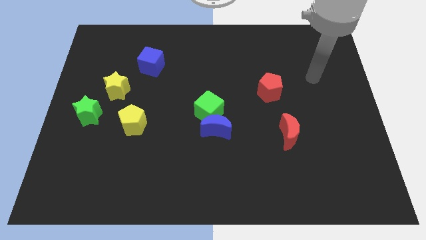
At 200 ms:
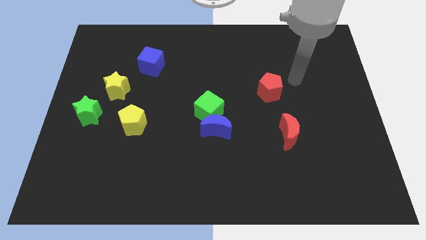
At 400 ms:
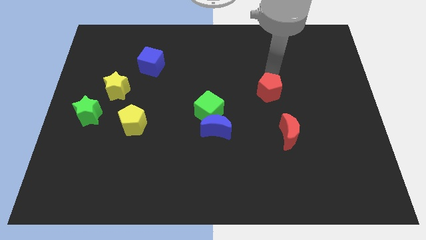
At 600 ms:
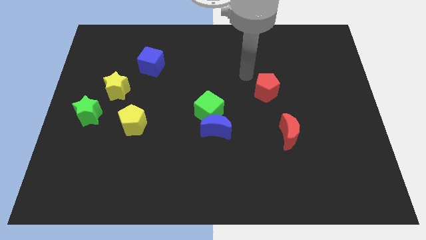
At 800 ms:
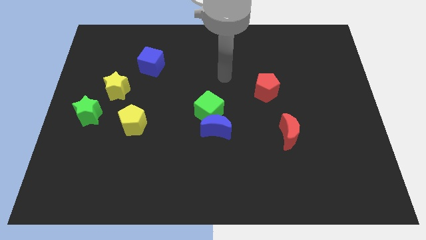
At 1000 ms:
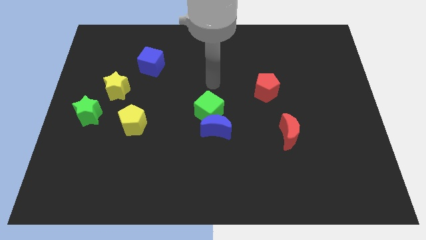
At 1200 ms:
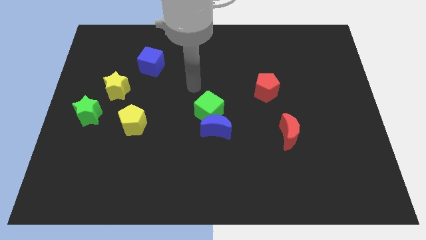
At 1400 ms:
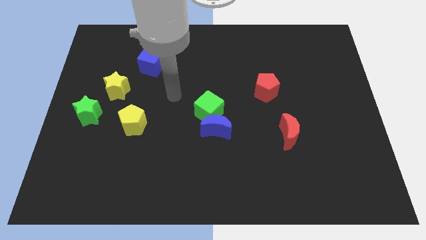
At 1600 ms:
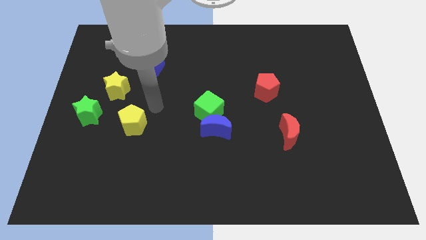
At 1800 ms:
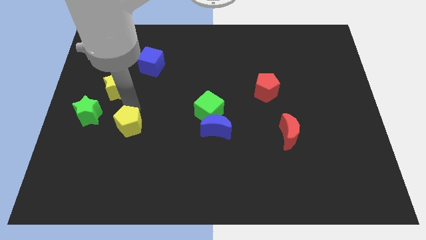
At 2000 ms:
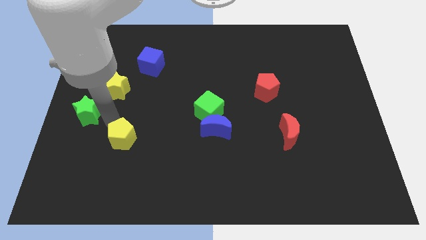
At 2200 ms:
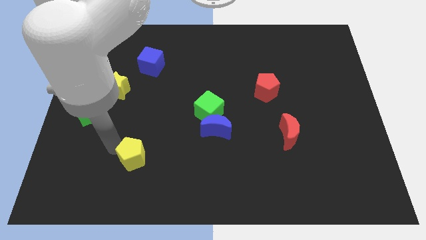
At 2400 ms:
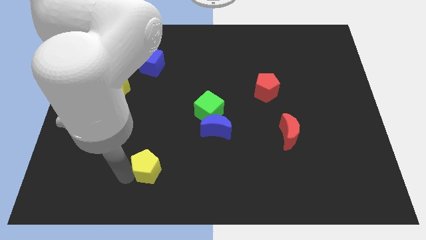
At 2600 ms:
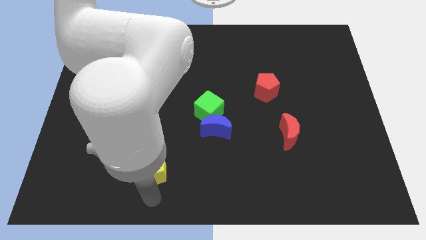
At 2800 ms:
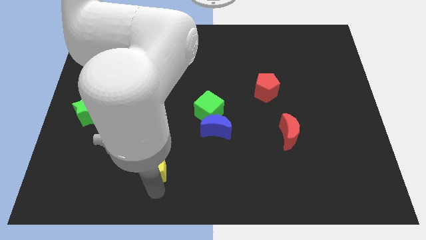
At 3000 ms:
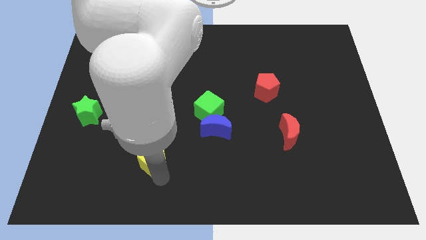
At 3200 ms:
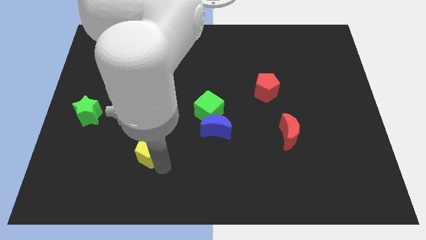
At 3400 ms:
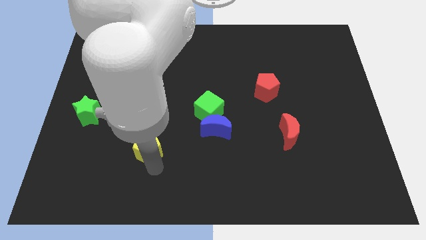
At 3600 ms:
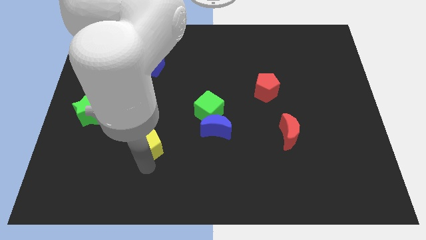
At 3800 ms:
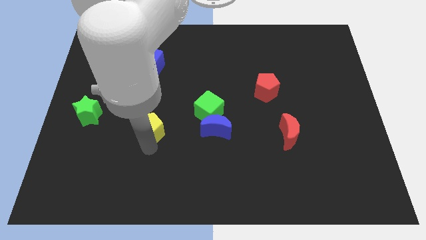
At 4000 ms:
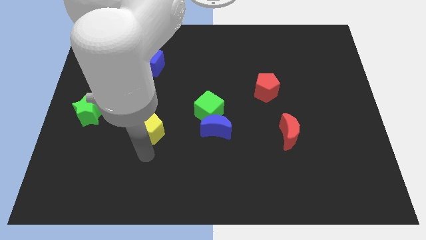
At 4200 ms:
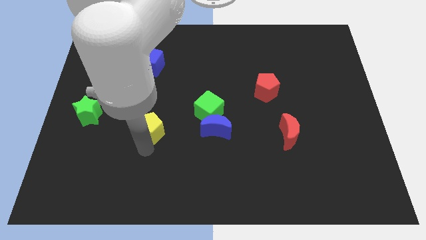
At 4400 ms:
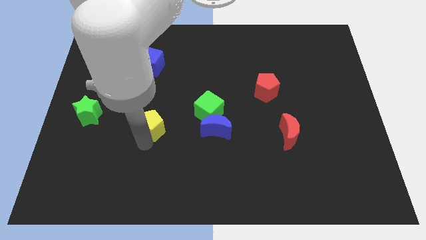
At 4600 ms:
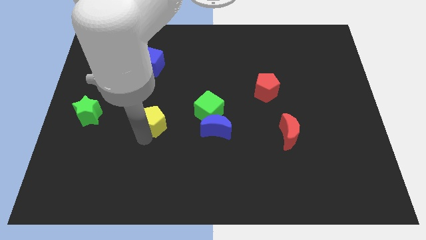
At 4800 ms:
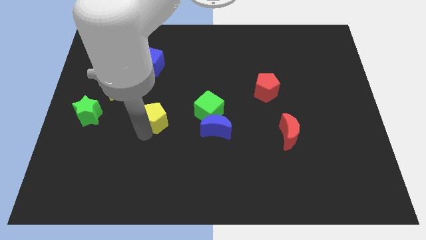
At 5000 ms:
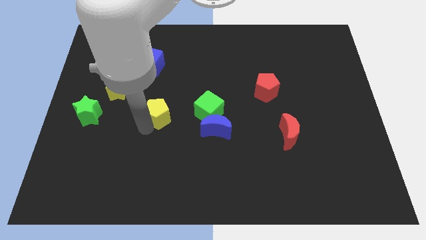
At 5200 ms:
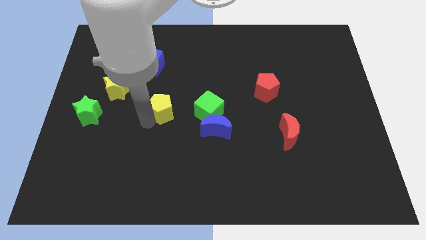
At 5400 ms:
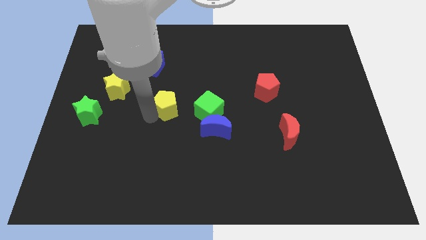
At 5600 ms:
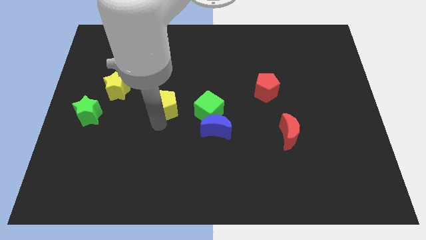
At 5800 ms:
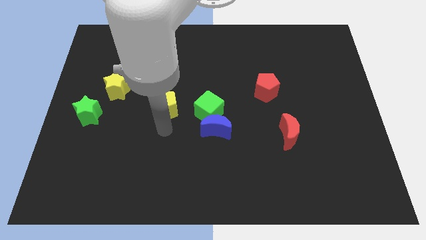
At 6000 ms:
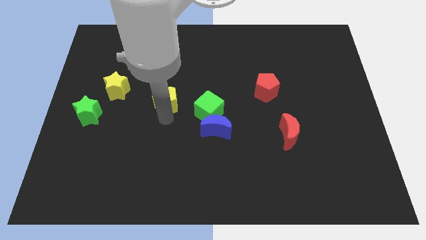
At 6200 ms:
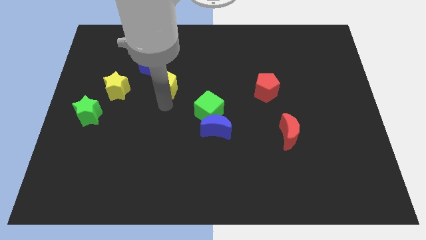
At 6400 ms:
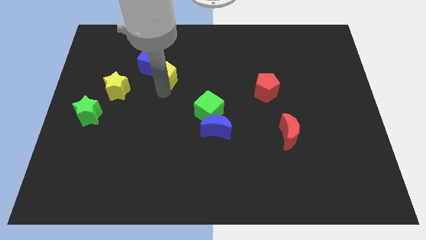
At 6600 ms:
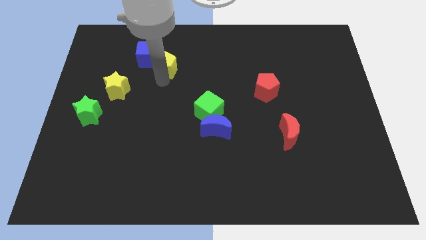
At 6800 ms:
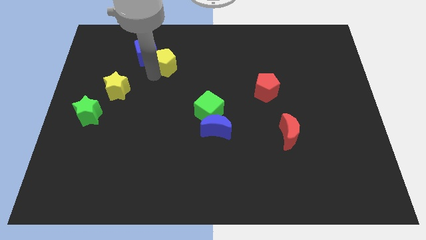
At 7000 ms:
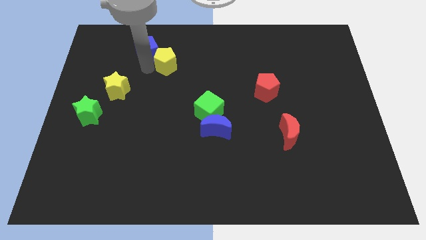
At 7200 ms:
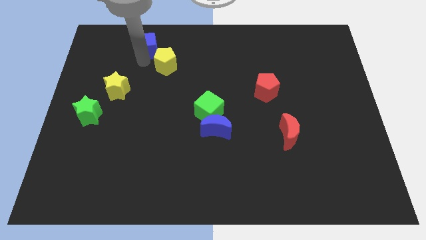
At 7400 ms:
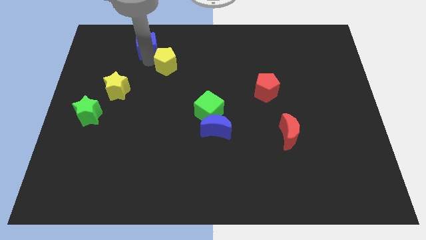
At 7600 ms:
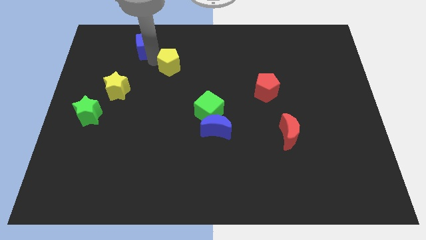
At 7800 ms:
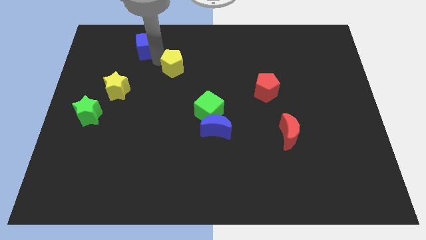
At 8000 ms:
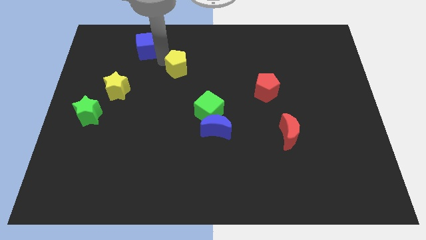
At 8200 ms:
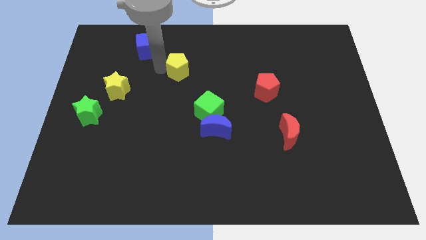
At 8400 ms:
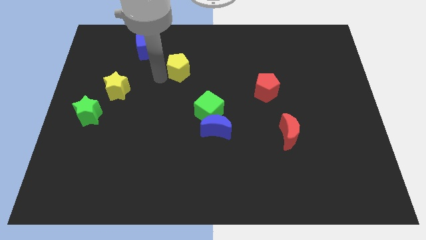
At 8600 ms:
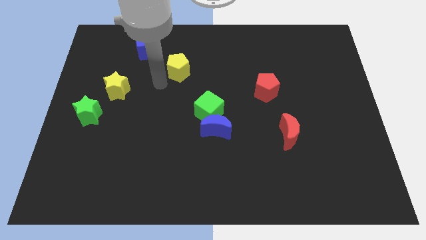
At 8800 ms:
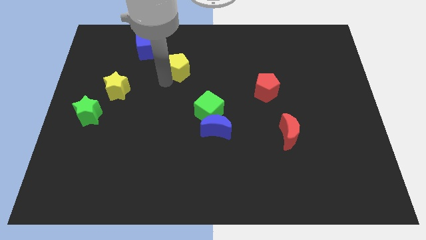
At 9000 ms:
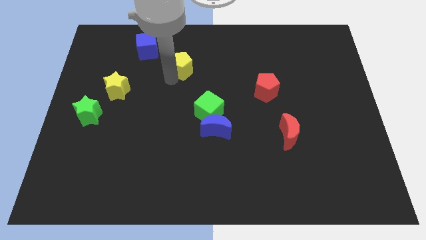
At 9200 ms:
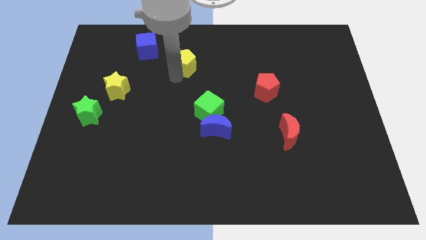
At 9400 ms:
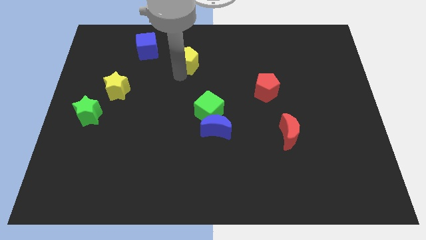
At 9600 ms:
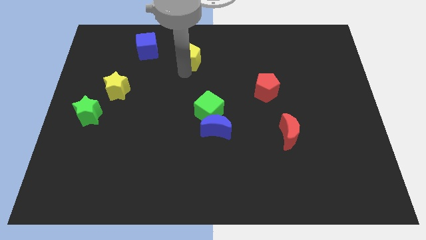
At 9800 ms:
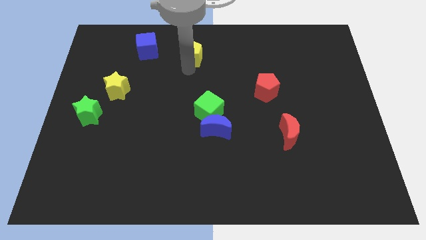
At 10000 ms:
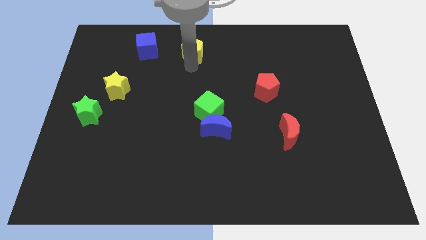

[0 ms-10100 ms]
move the yellow pentagon to the top

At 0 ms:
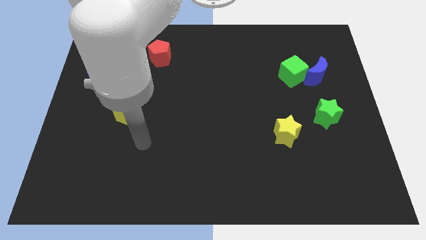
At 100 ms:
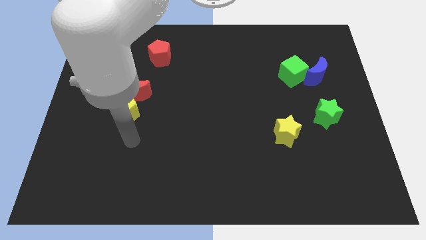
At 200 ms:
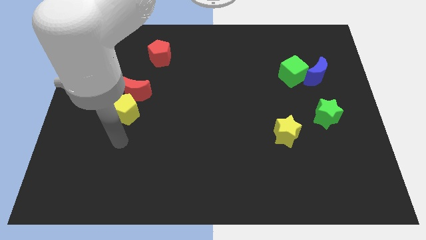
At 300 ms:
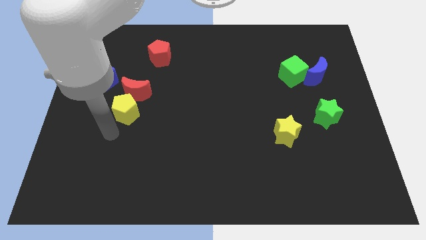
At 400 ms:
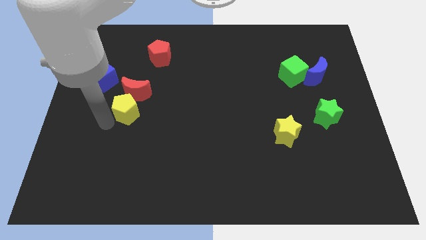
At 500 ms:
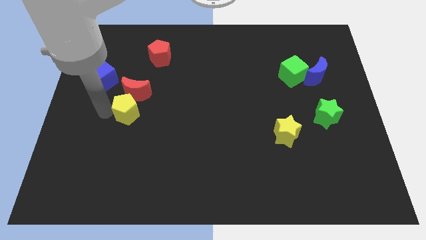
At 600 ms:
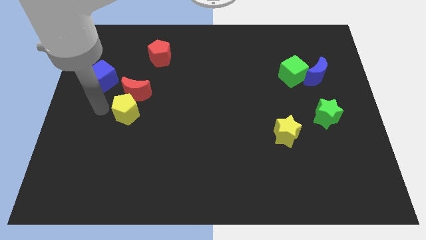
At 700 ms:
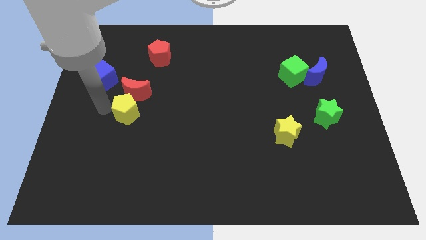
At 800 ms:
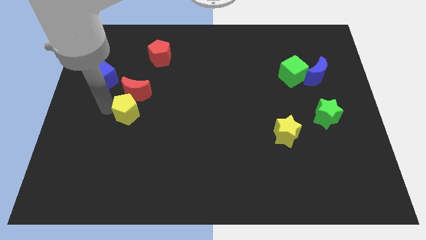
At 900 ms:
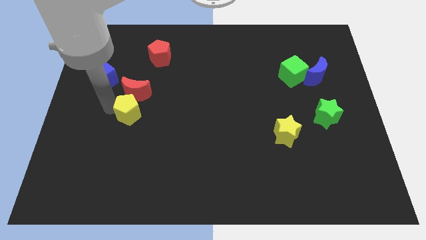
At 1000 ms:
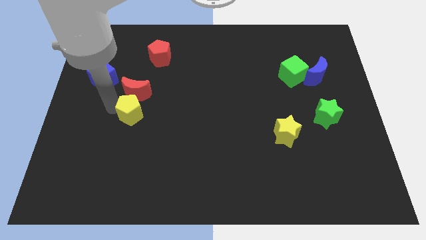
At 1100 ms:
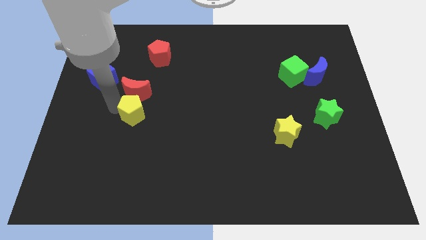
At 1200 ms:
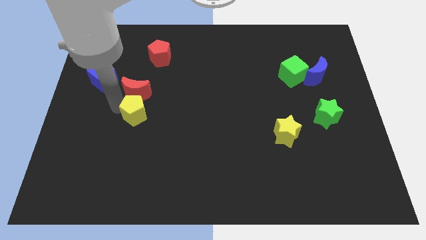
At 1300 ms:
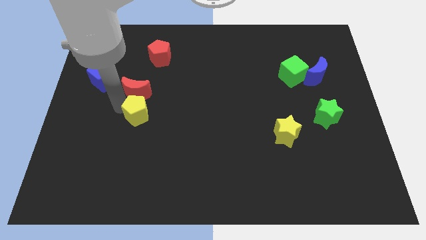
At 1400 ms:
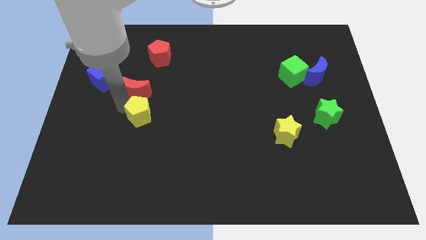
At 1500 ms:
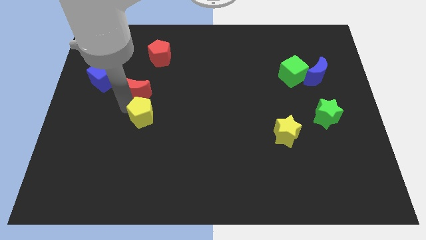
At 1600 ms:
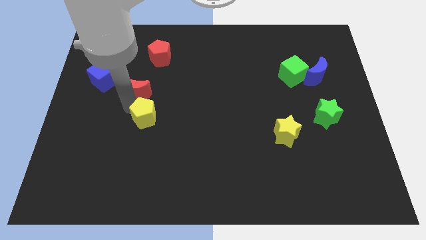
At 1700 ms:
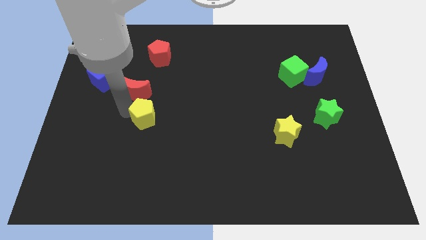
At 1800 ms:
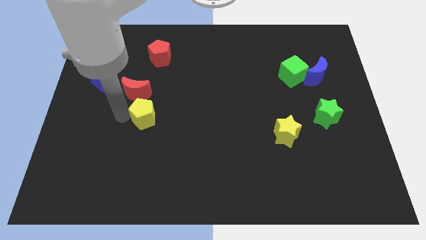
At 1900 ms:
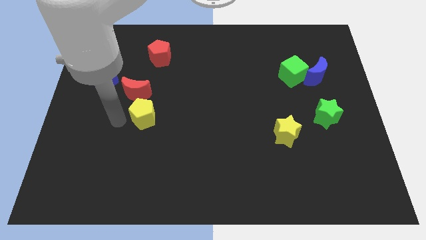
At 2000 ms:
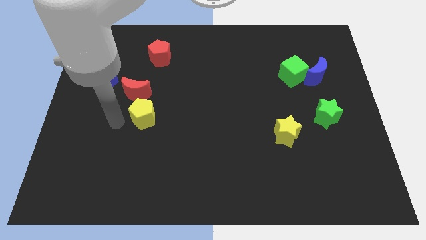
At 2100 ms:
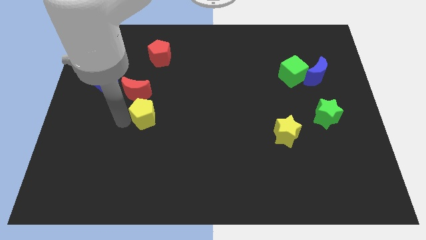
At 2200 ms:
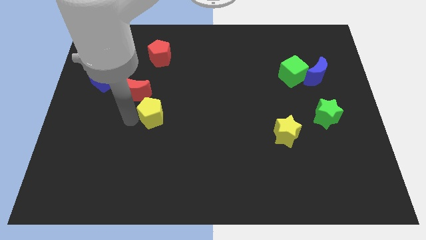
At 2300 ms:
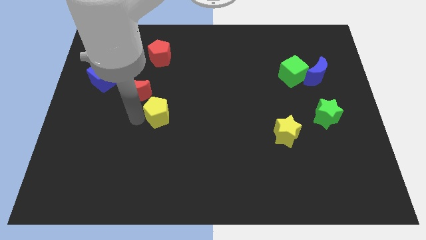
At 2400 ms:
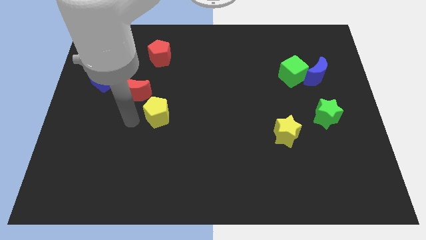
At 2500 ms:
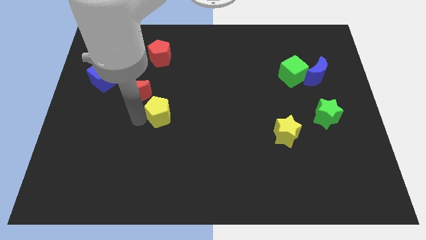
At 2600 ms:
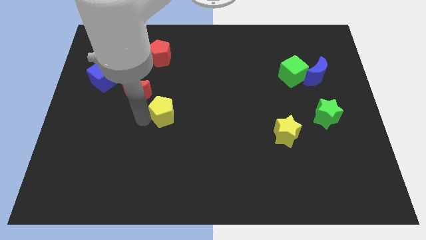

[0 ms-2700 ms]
slide the yellow pentagon to the center of the board
